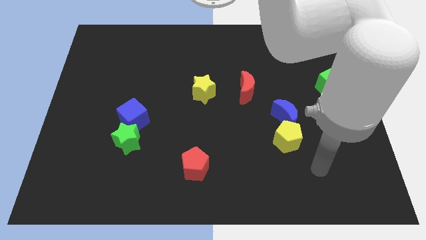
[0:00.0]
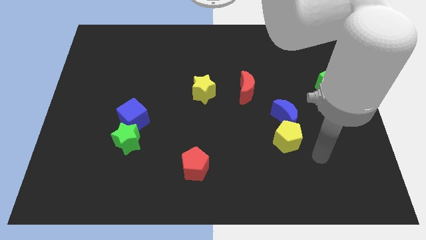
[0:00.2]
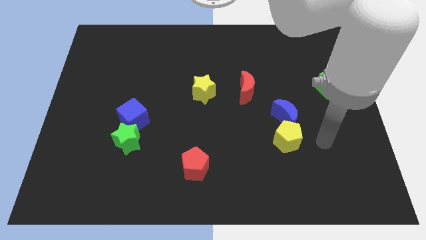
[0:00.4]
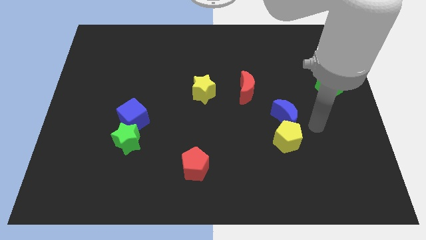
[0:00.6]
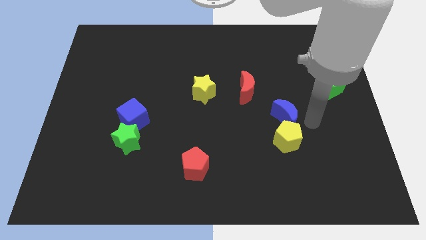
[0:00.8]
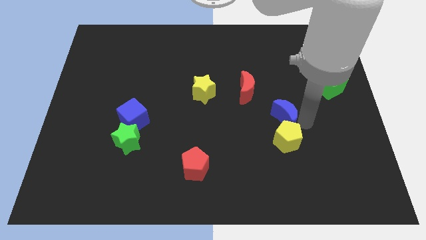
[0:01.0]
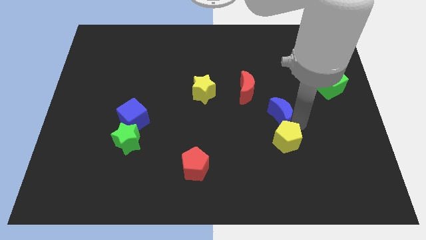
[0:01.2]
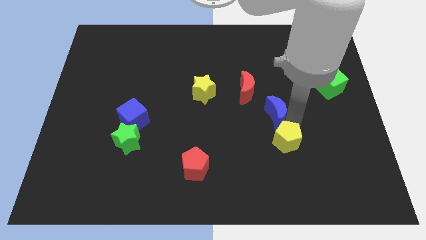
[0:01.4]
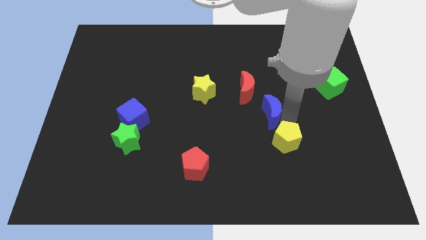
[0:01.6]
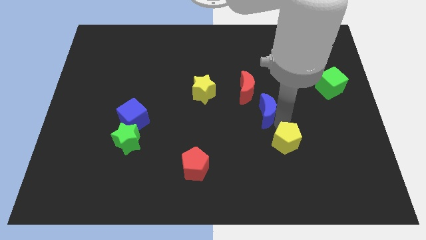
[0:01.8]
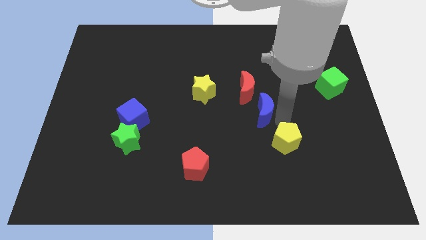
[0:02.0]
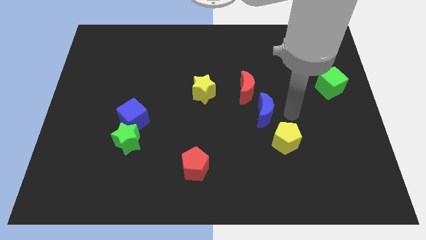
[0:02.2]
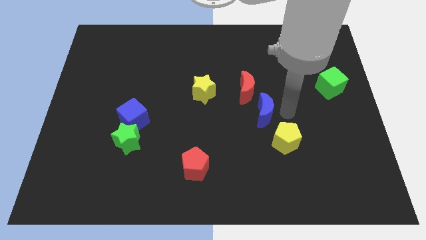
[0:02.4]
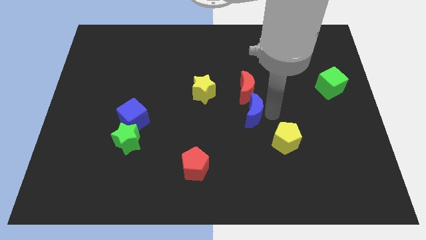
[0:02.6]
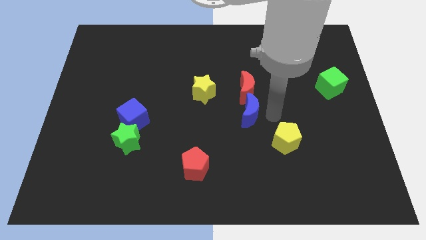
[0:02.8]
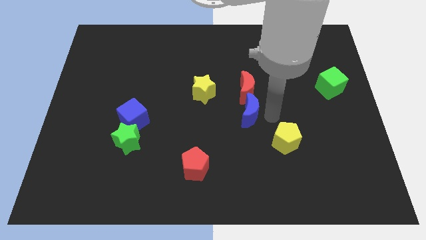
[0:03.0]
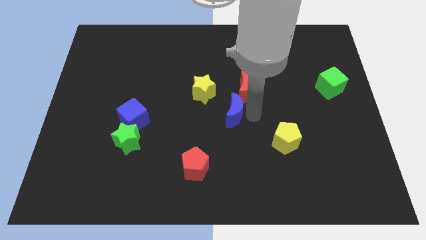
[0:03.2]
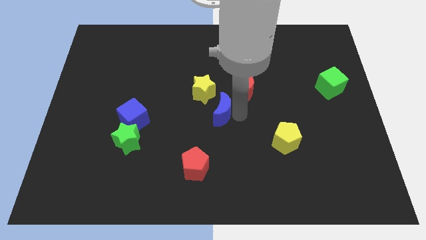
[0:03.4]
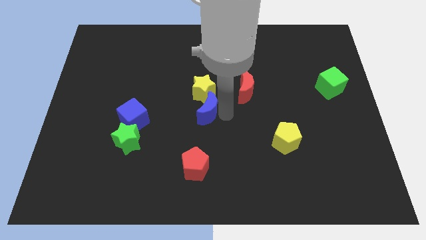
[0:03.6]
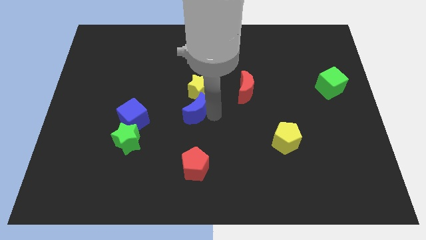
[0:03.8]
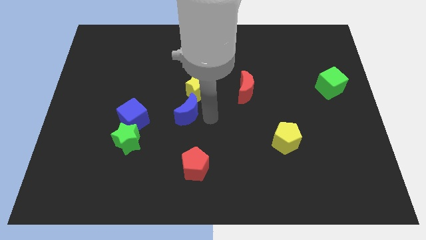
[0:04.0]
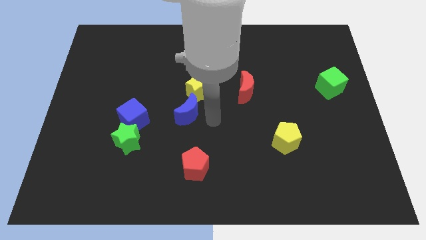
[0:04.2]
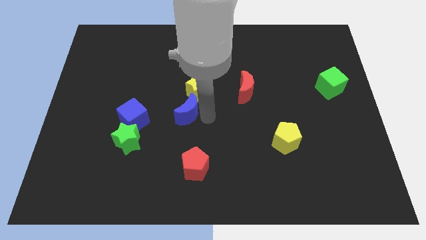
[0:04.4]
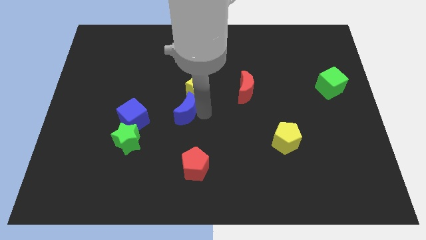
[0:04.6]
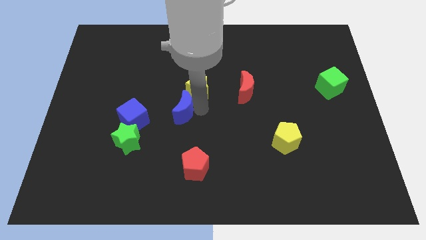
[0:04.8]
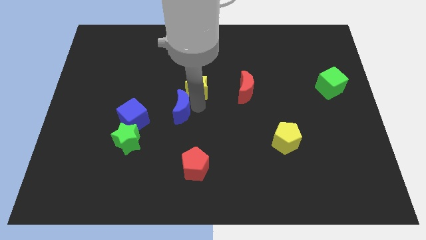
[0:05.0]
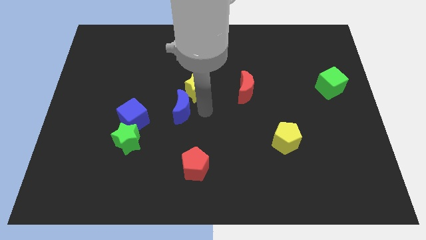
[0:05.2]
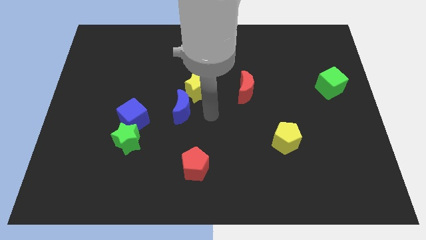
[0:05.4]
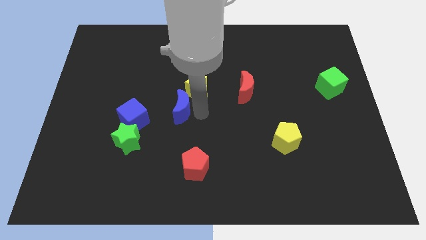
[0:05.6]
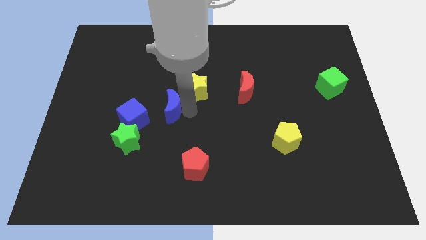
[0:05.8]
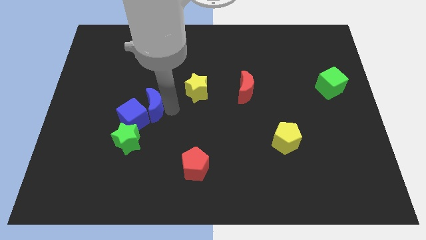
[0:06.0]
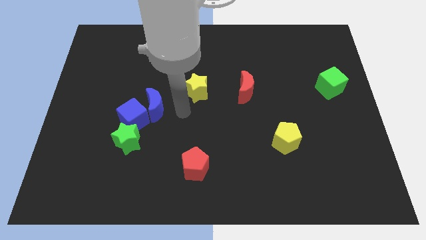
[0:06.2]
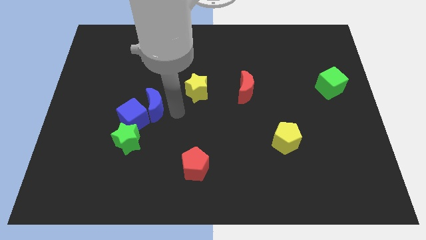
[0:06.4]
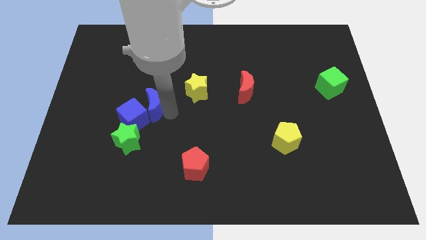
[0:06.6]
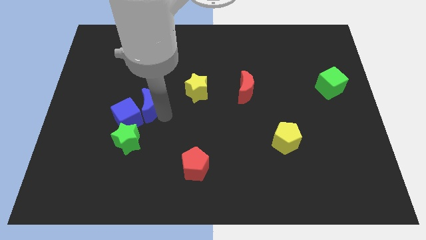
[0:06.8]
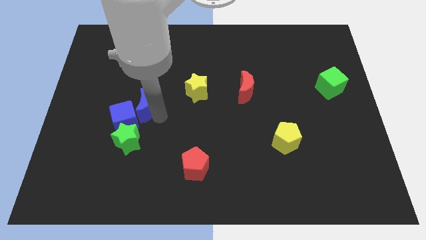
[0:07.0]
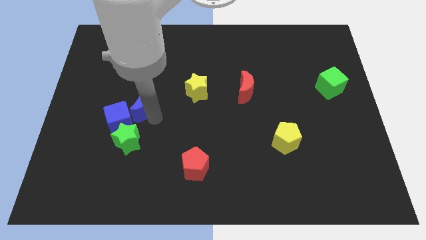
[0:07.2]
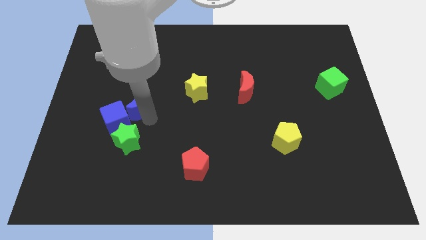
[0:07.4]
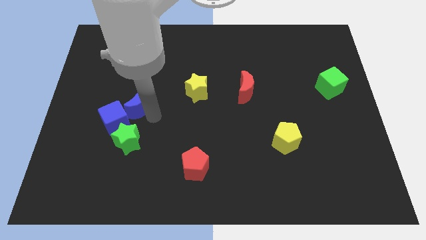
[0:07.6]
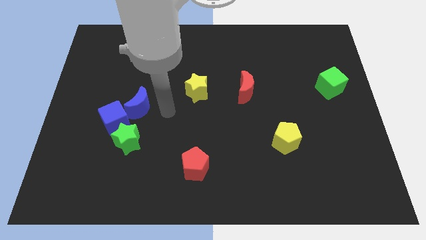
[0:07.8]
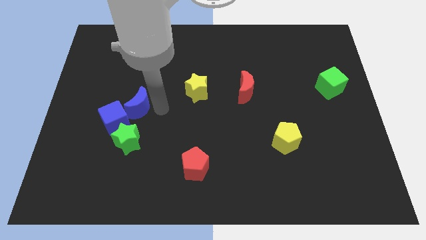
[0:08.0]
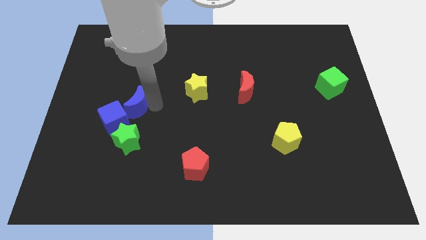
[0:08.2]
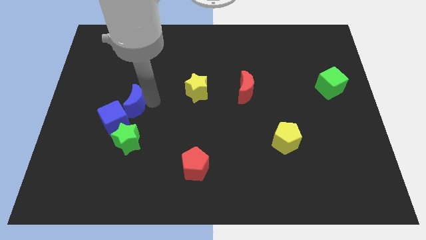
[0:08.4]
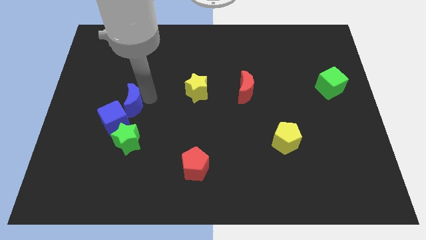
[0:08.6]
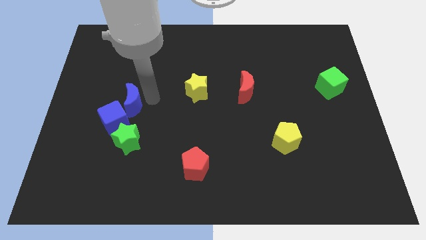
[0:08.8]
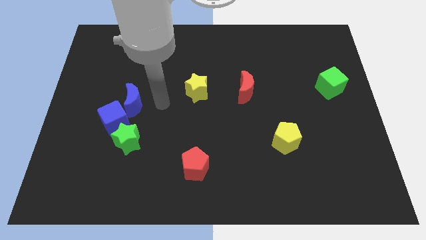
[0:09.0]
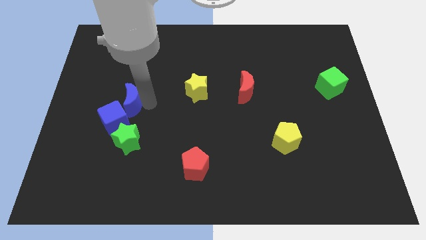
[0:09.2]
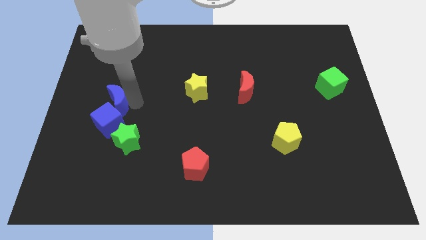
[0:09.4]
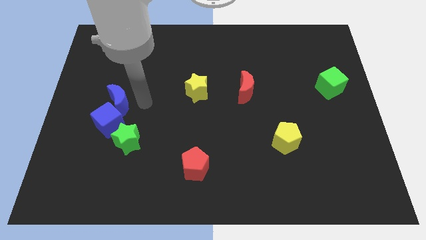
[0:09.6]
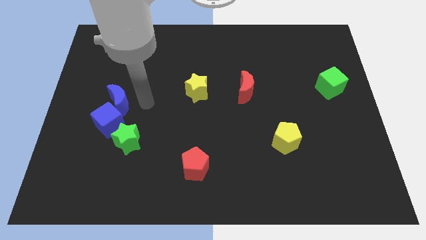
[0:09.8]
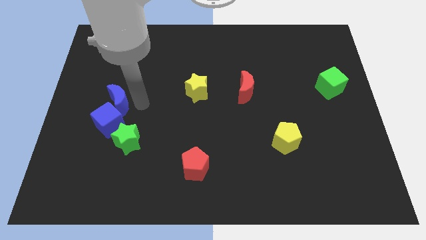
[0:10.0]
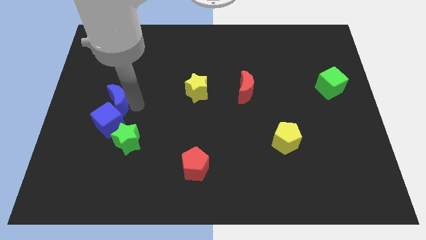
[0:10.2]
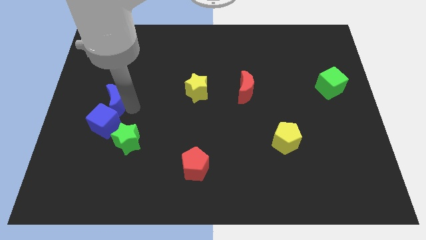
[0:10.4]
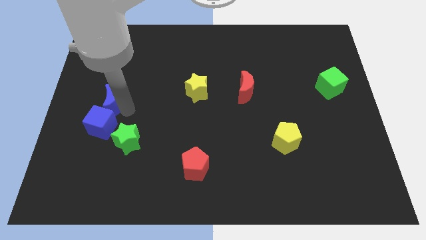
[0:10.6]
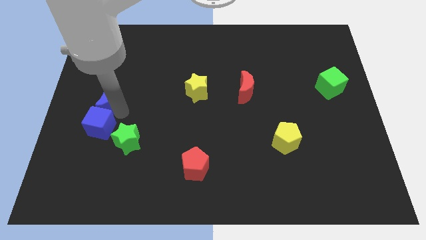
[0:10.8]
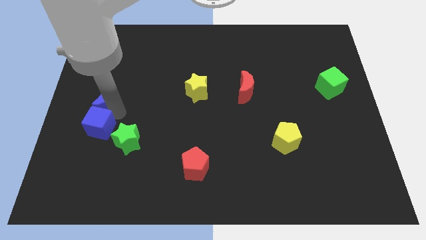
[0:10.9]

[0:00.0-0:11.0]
put the blue moon to the left side of the board

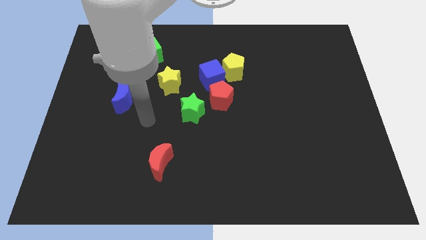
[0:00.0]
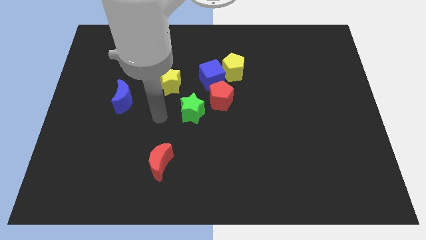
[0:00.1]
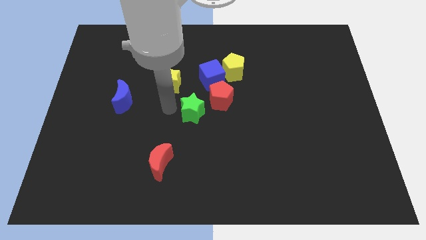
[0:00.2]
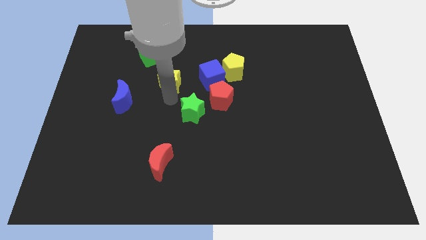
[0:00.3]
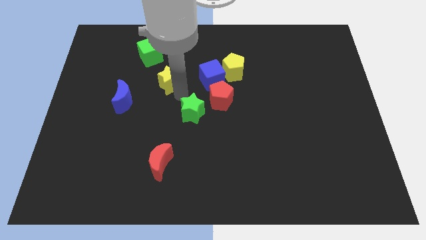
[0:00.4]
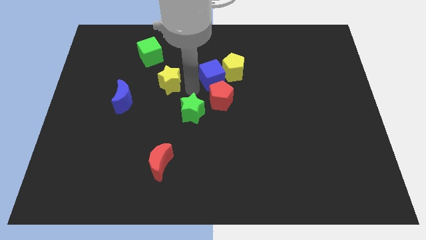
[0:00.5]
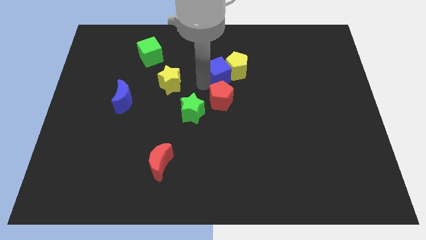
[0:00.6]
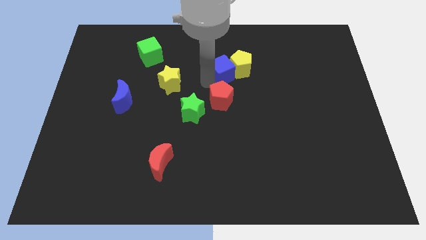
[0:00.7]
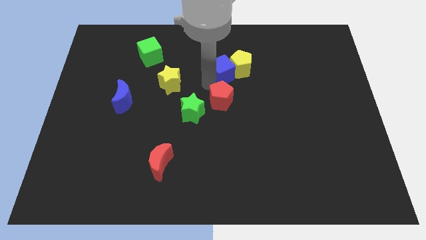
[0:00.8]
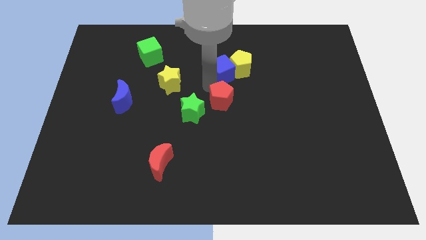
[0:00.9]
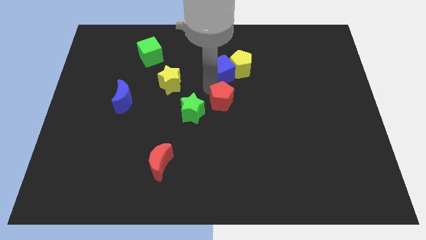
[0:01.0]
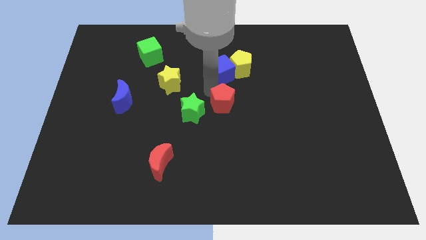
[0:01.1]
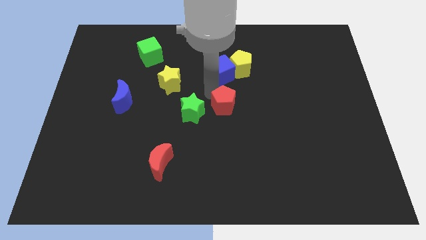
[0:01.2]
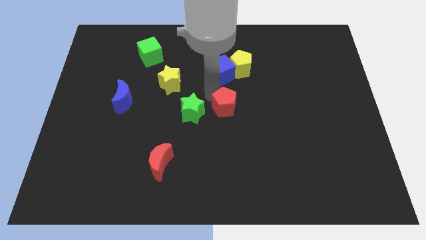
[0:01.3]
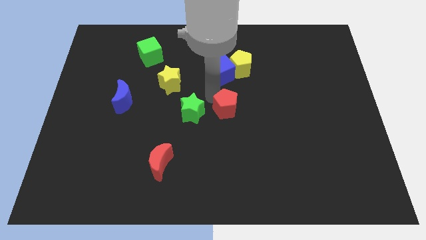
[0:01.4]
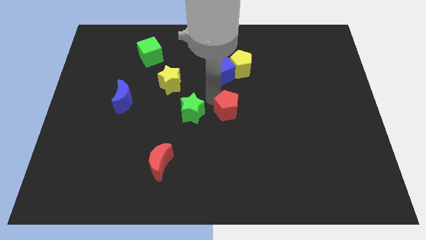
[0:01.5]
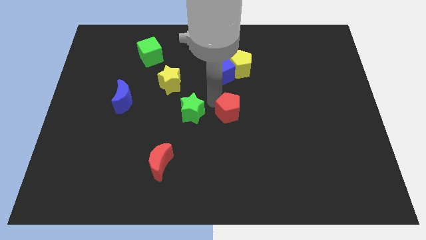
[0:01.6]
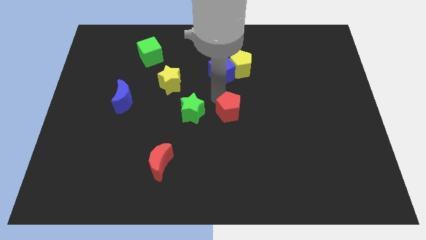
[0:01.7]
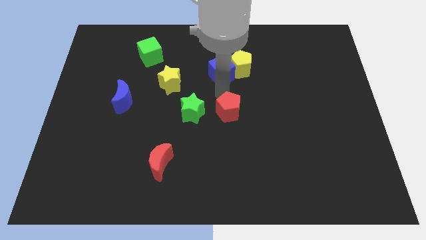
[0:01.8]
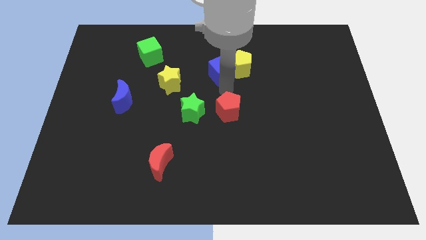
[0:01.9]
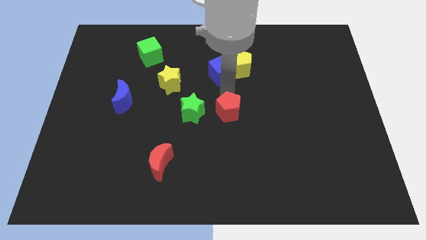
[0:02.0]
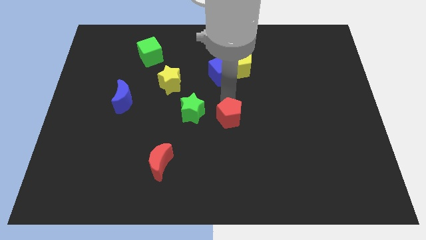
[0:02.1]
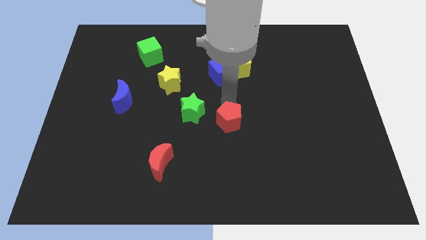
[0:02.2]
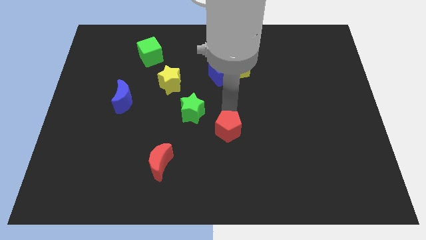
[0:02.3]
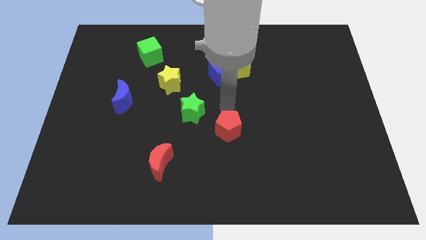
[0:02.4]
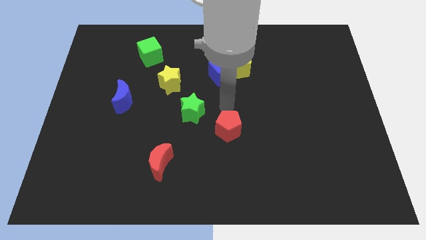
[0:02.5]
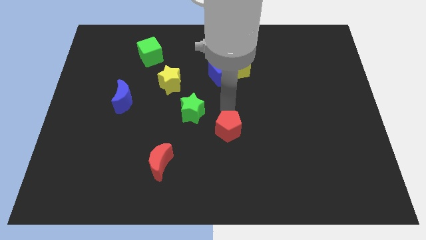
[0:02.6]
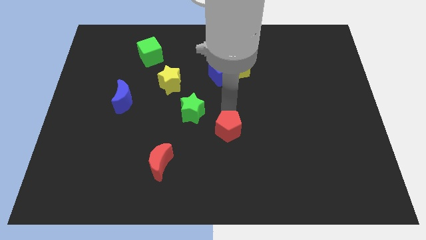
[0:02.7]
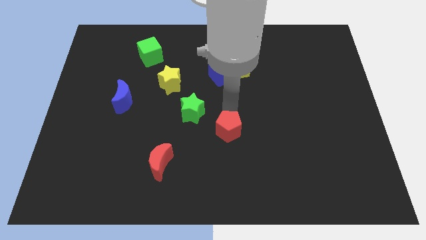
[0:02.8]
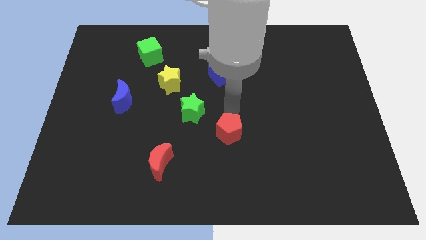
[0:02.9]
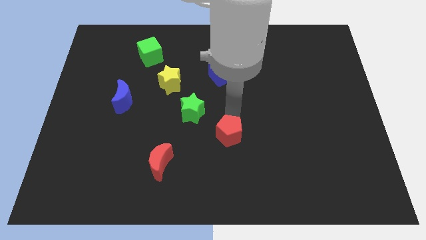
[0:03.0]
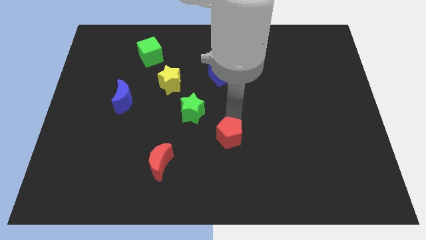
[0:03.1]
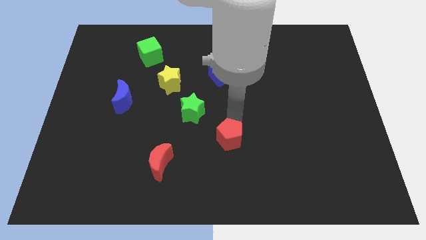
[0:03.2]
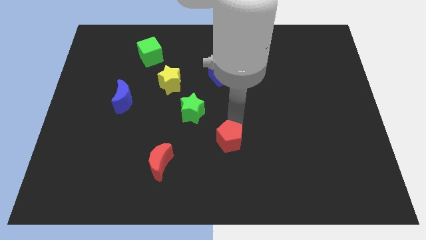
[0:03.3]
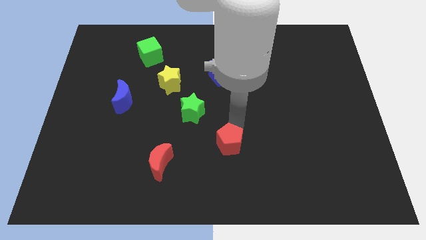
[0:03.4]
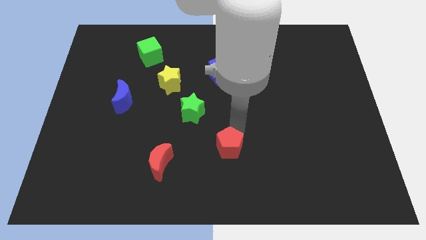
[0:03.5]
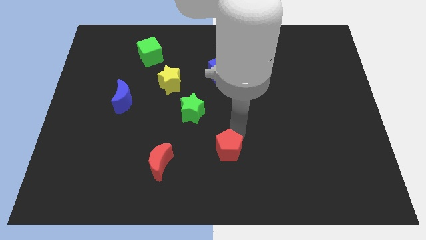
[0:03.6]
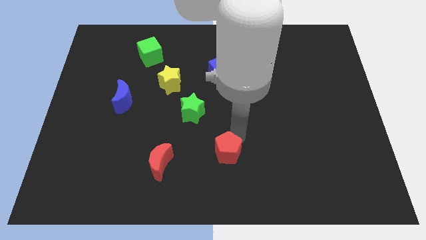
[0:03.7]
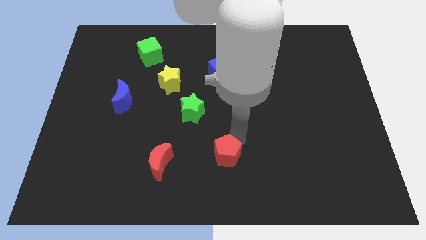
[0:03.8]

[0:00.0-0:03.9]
slide the red pentagon to the bottom
